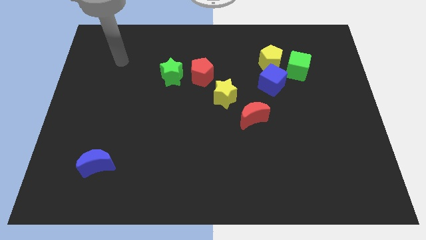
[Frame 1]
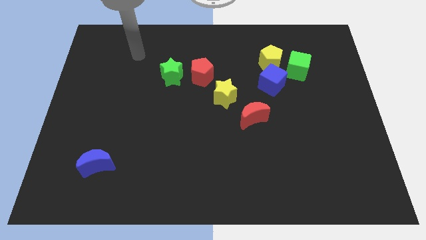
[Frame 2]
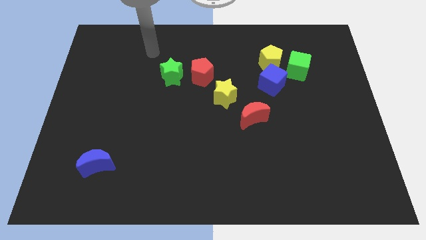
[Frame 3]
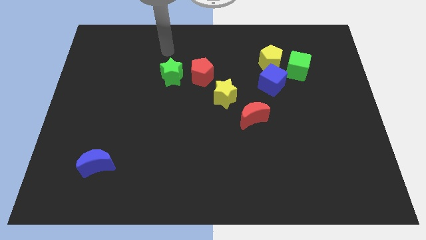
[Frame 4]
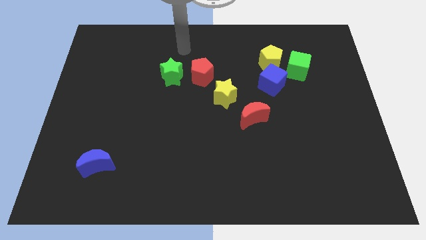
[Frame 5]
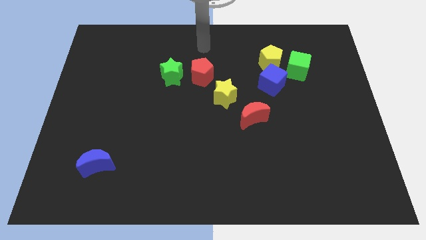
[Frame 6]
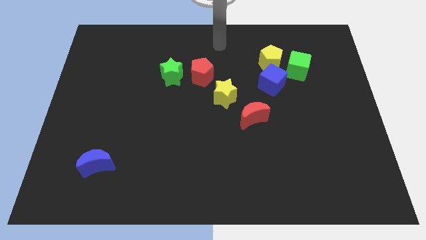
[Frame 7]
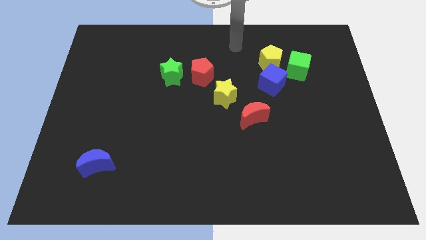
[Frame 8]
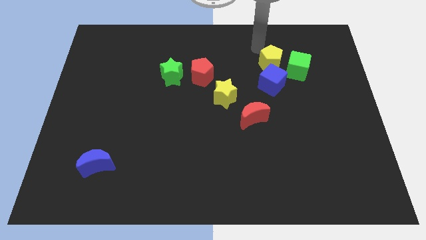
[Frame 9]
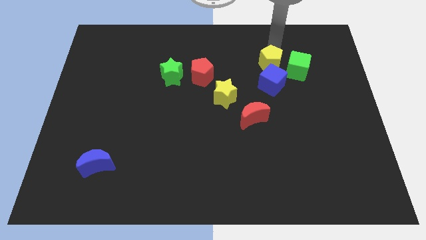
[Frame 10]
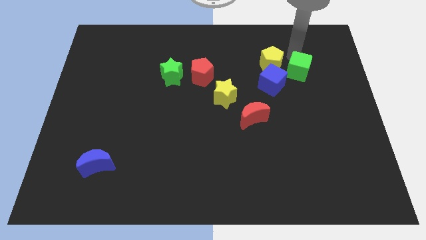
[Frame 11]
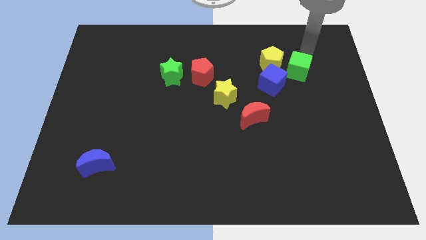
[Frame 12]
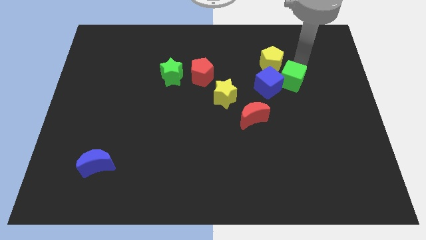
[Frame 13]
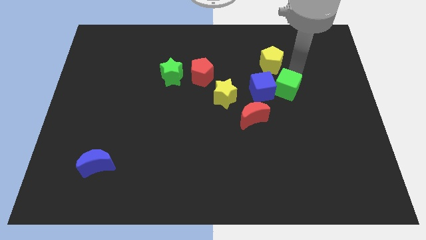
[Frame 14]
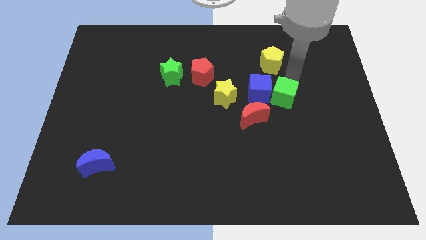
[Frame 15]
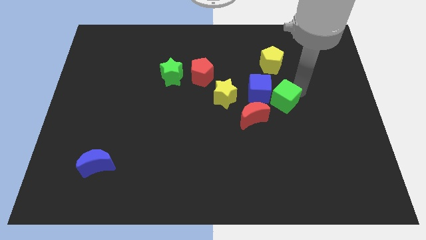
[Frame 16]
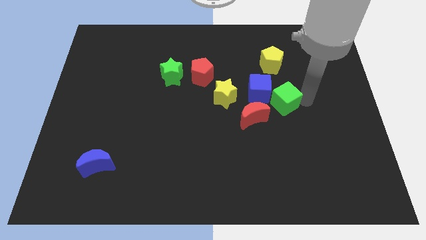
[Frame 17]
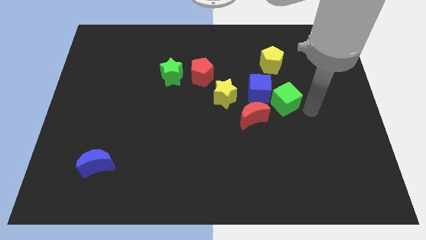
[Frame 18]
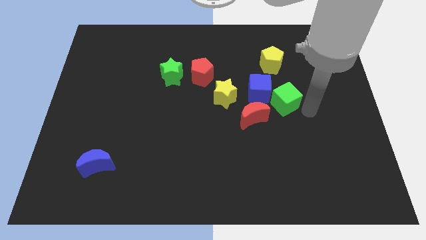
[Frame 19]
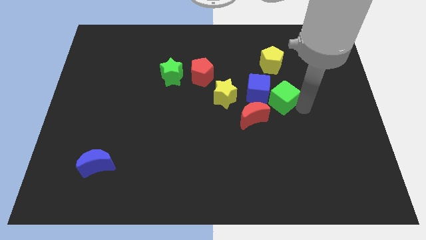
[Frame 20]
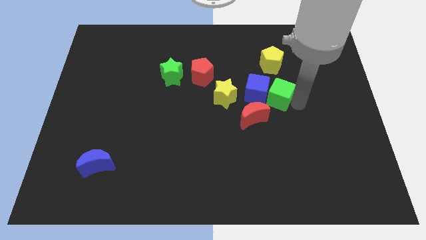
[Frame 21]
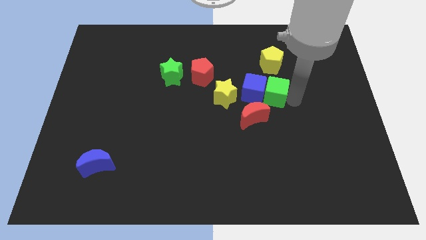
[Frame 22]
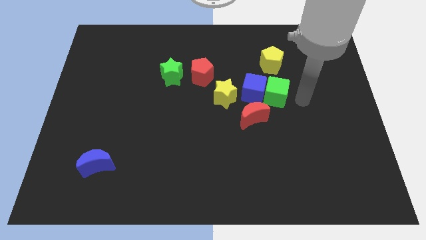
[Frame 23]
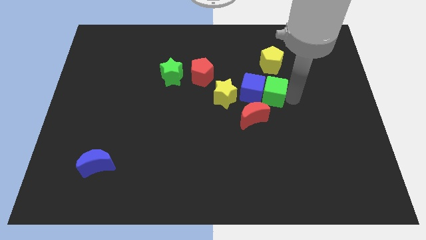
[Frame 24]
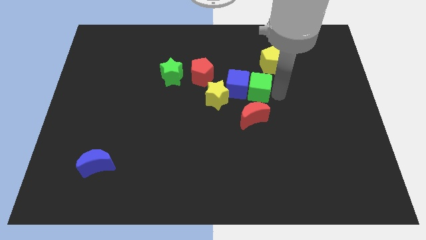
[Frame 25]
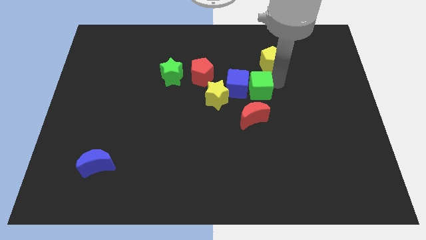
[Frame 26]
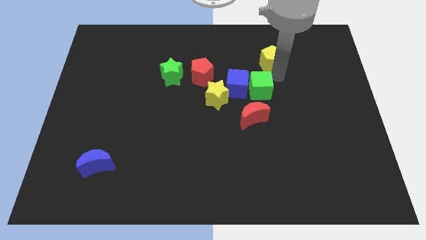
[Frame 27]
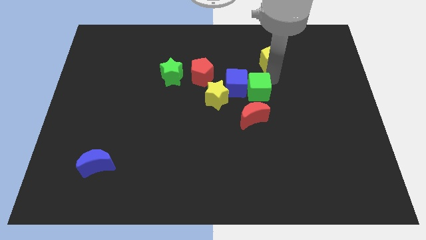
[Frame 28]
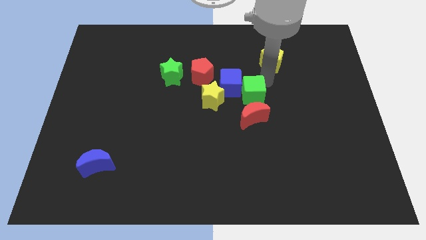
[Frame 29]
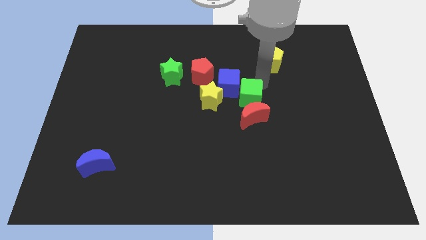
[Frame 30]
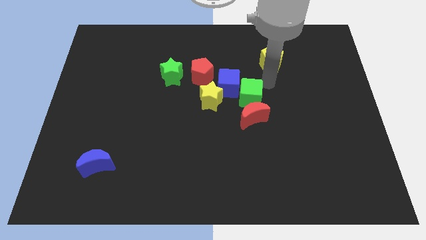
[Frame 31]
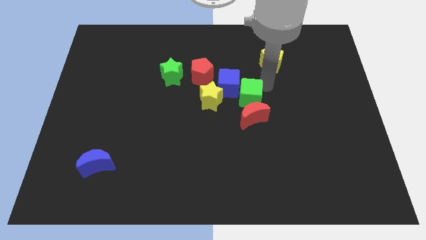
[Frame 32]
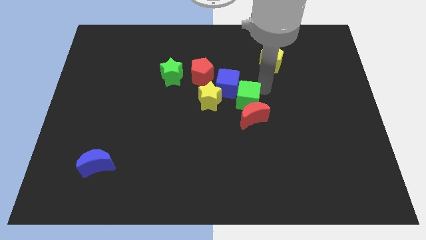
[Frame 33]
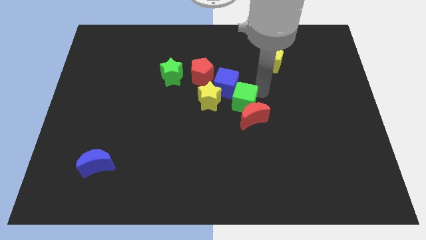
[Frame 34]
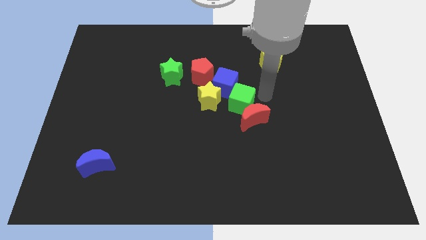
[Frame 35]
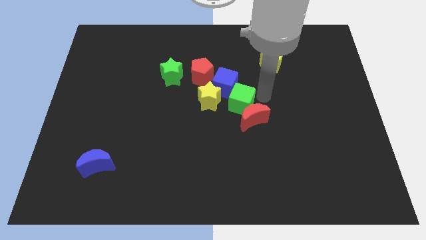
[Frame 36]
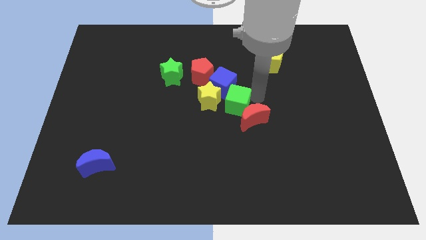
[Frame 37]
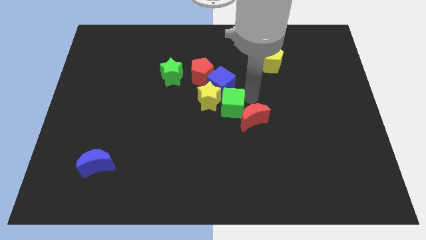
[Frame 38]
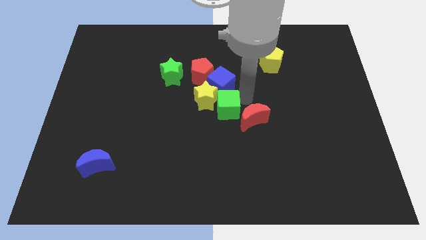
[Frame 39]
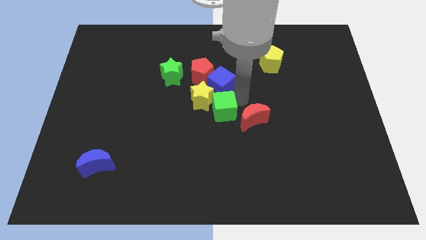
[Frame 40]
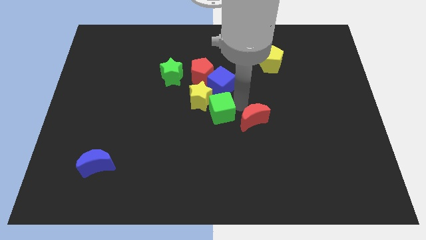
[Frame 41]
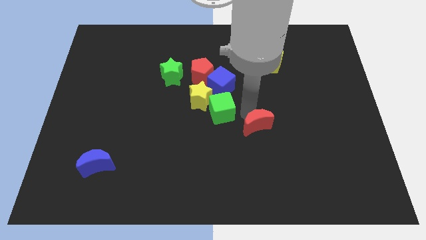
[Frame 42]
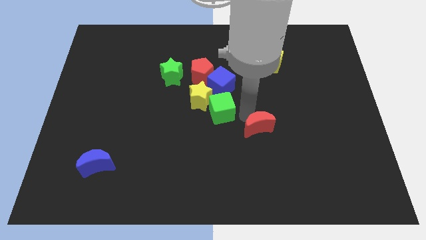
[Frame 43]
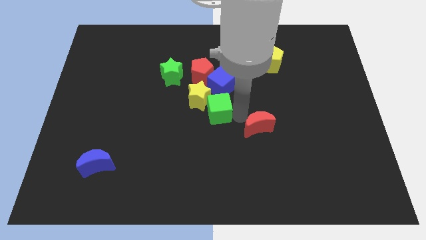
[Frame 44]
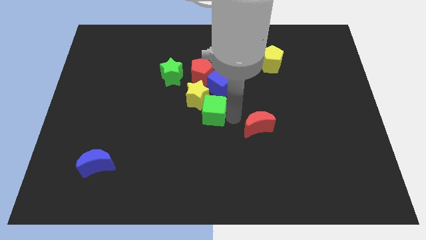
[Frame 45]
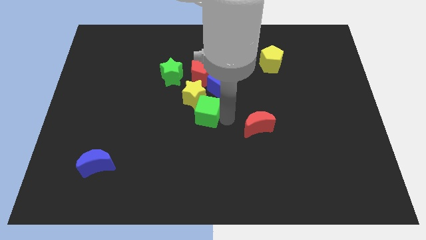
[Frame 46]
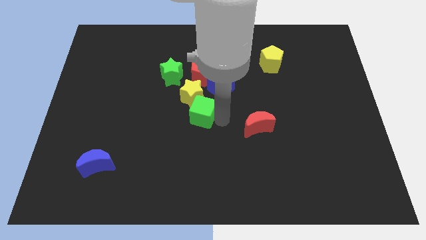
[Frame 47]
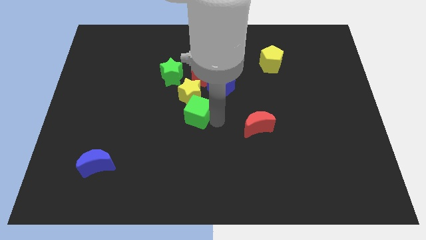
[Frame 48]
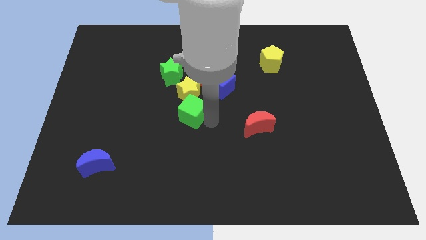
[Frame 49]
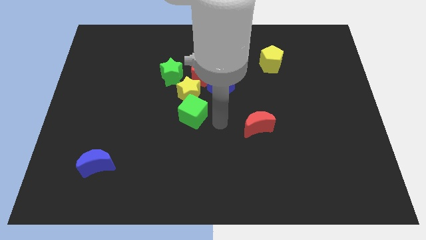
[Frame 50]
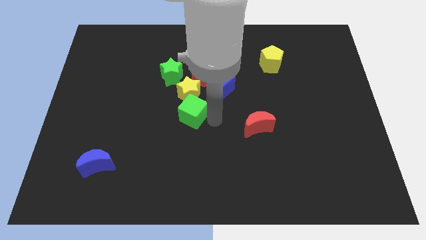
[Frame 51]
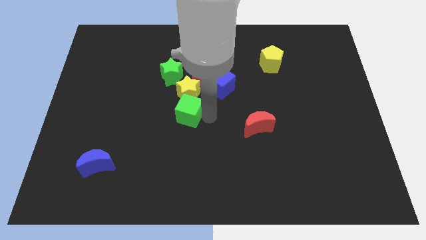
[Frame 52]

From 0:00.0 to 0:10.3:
slide the green cube to the bottom of the green star

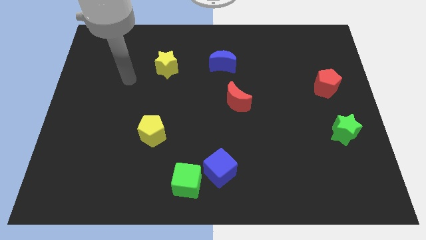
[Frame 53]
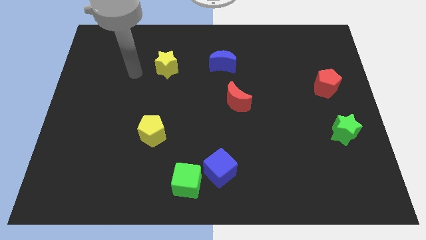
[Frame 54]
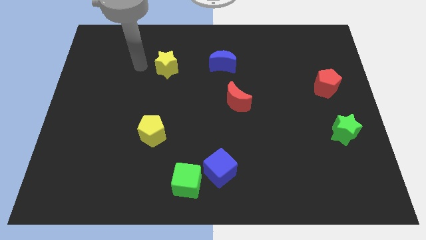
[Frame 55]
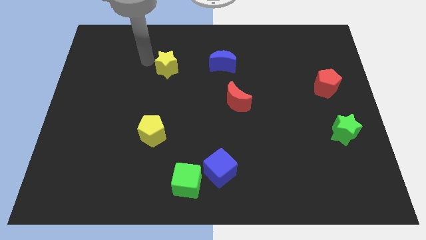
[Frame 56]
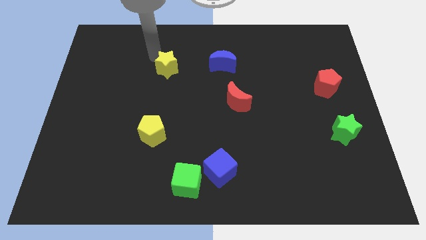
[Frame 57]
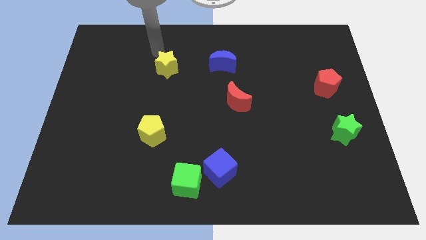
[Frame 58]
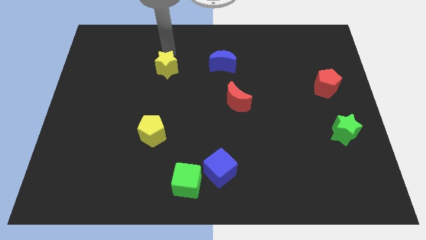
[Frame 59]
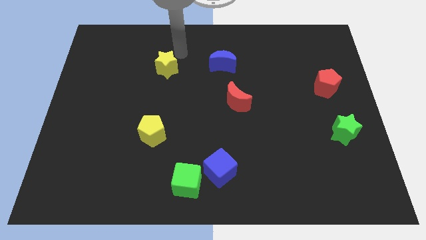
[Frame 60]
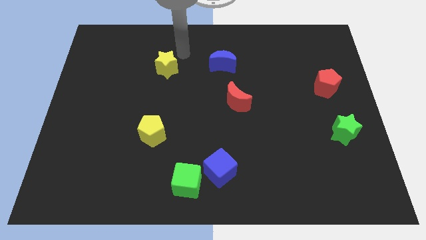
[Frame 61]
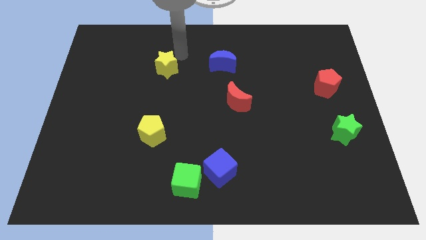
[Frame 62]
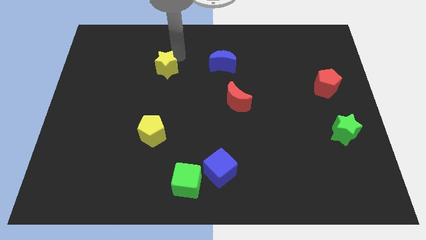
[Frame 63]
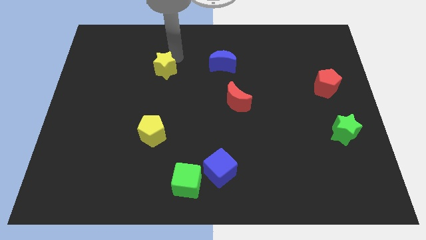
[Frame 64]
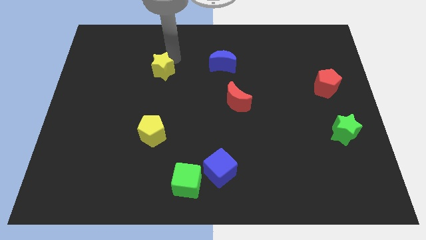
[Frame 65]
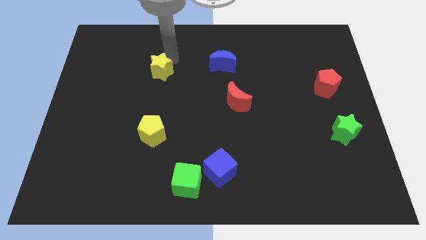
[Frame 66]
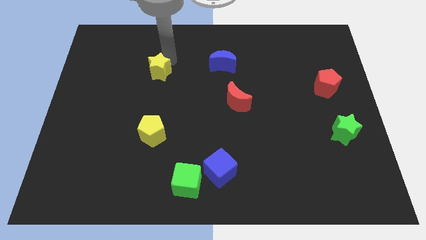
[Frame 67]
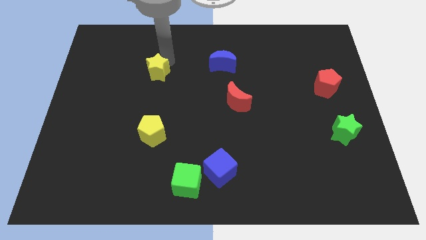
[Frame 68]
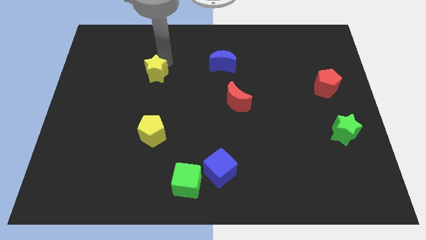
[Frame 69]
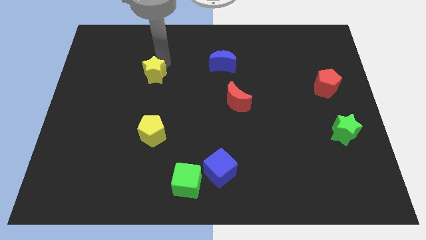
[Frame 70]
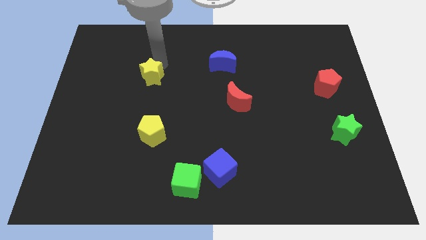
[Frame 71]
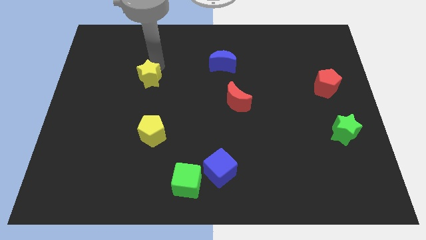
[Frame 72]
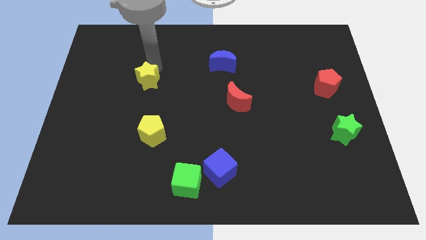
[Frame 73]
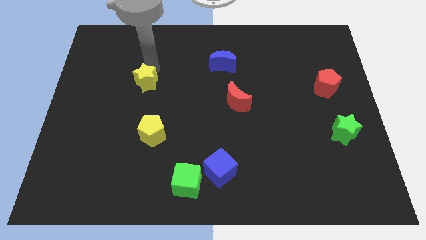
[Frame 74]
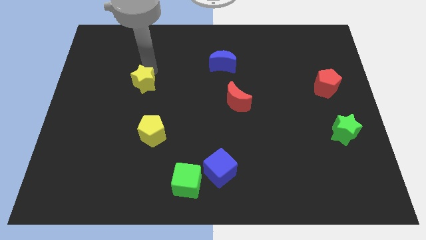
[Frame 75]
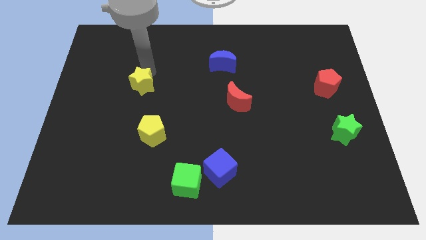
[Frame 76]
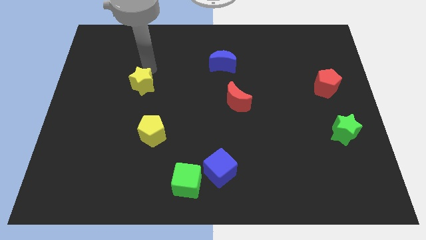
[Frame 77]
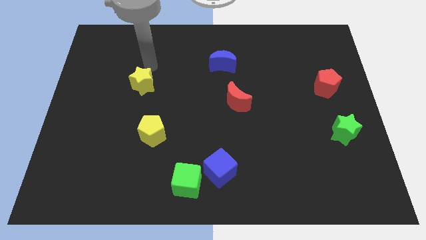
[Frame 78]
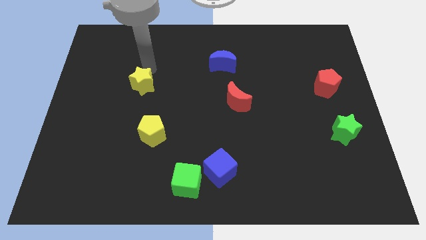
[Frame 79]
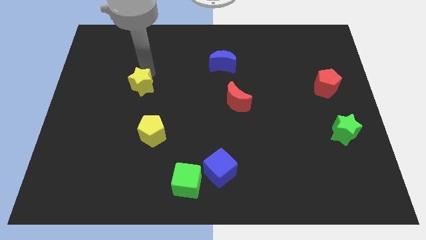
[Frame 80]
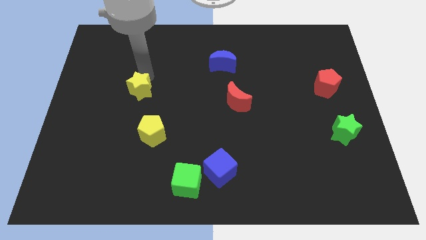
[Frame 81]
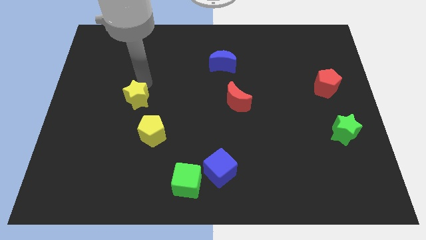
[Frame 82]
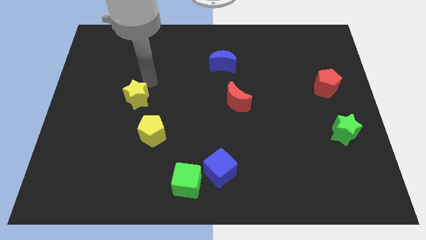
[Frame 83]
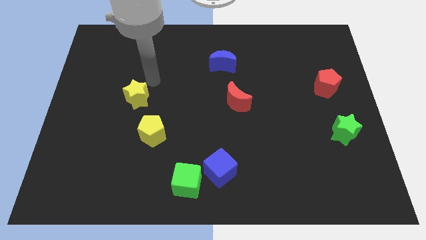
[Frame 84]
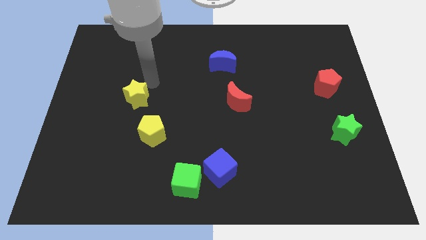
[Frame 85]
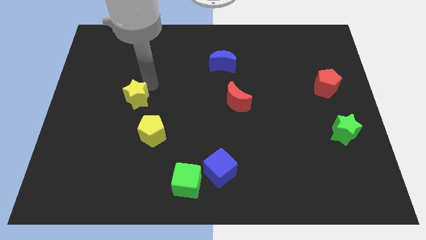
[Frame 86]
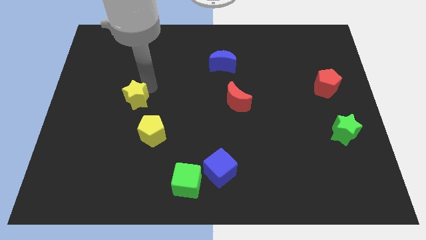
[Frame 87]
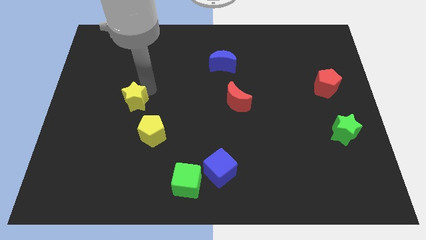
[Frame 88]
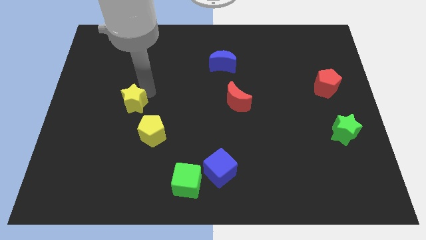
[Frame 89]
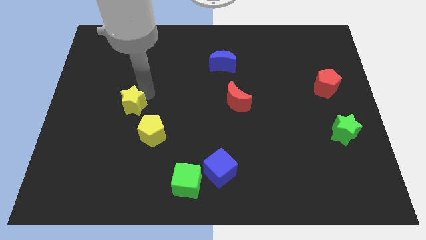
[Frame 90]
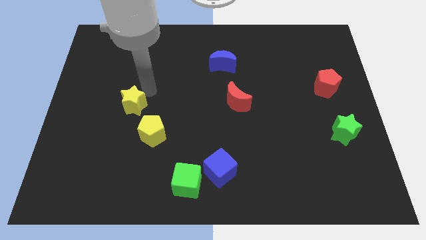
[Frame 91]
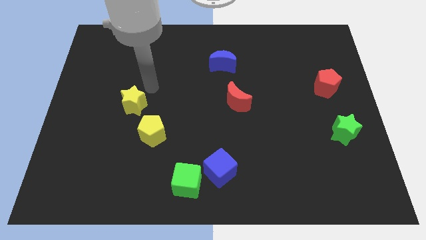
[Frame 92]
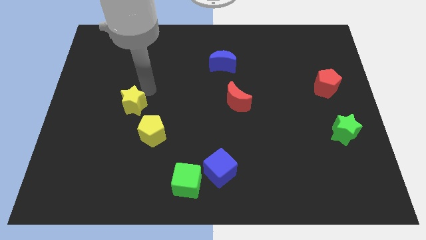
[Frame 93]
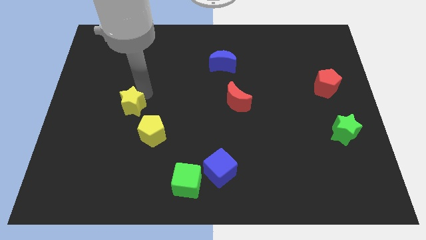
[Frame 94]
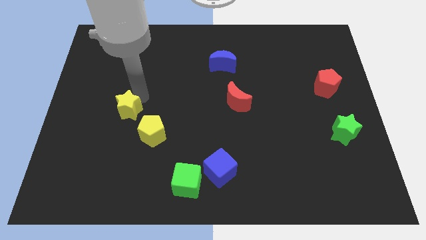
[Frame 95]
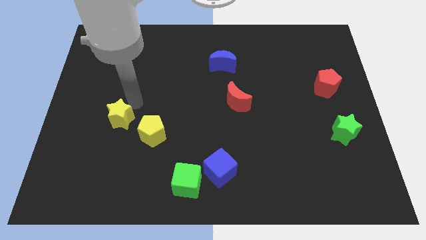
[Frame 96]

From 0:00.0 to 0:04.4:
put the yellow star to the left side of the yellow pentagon
